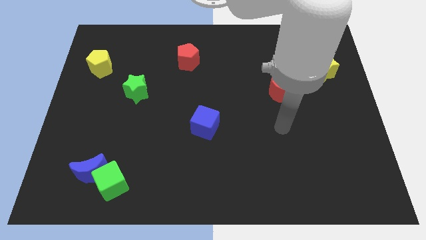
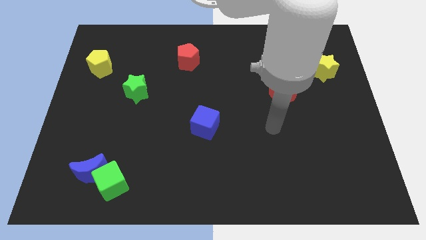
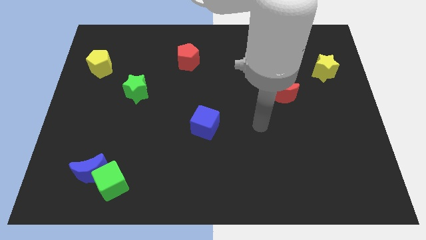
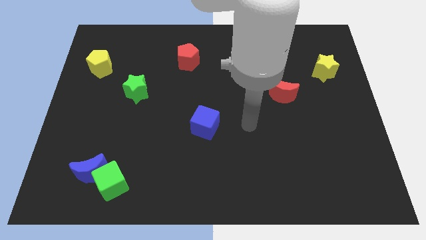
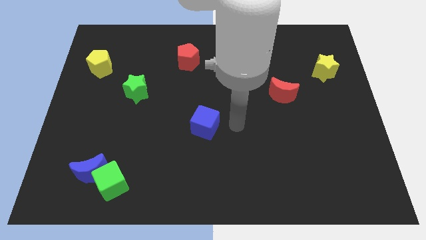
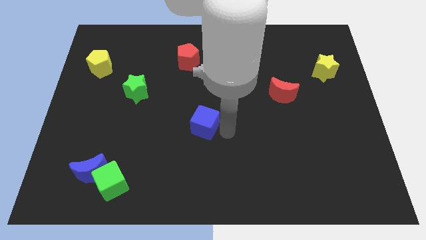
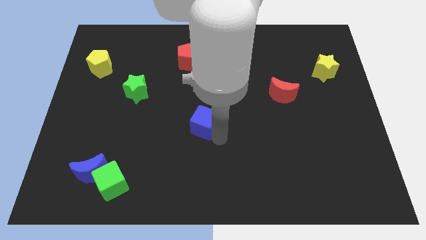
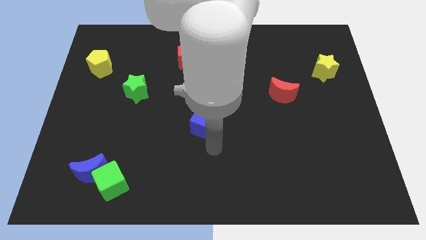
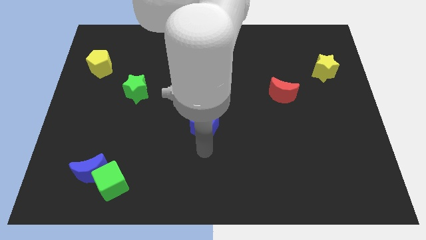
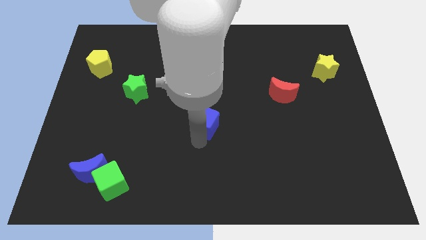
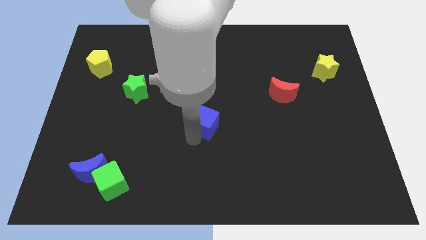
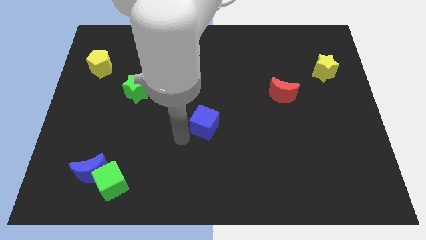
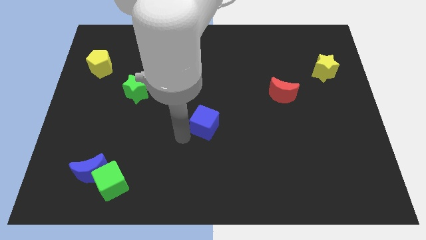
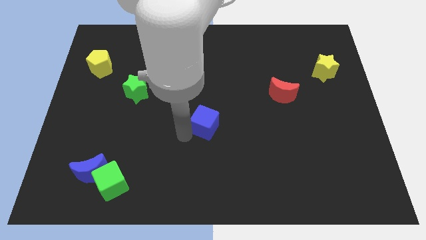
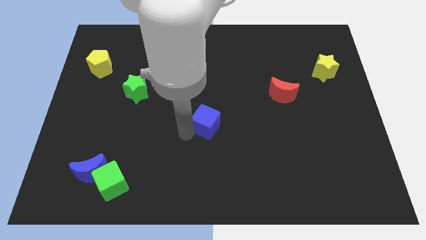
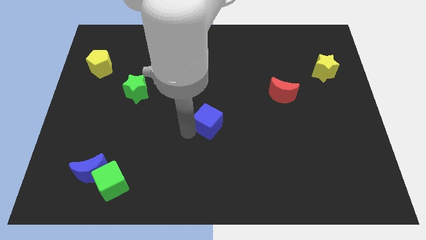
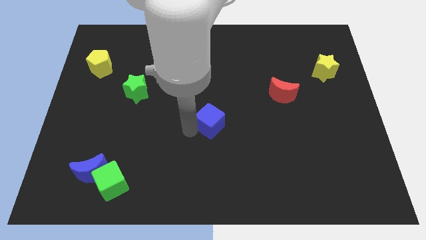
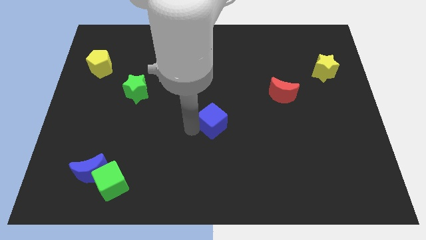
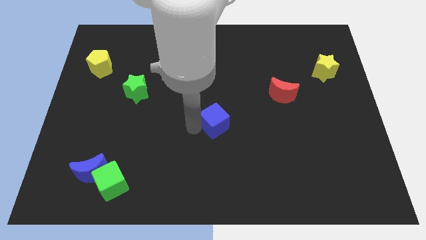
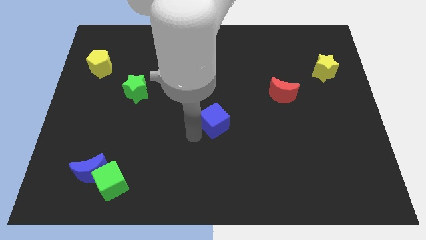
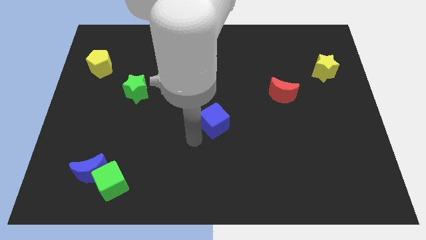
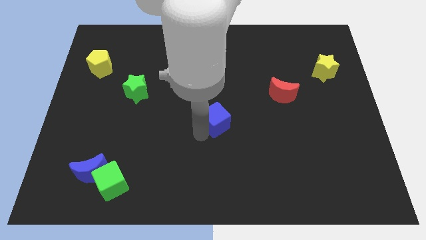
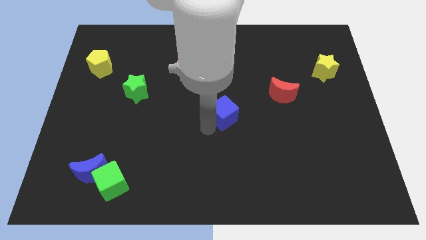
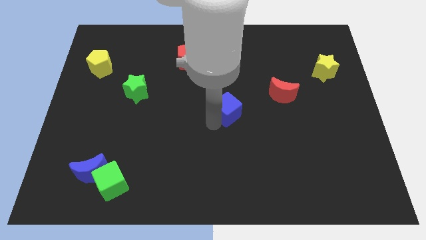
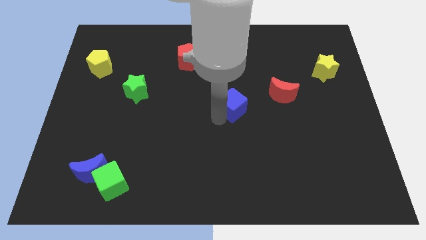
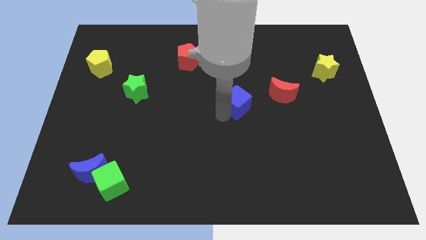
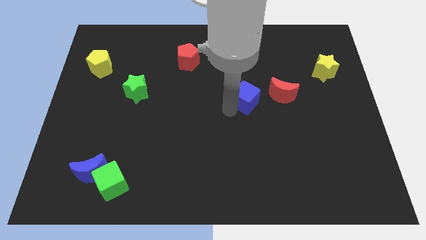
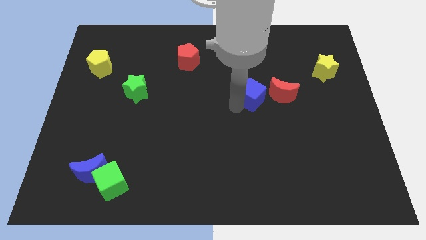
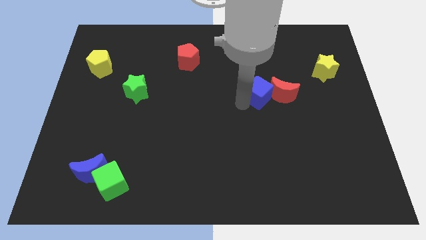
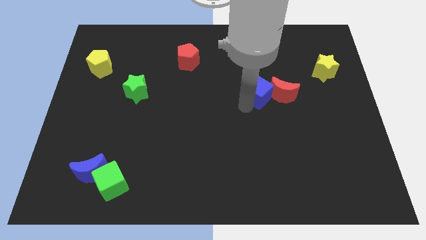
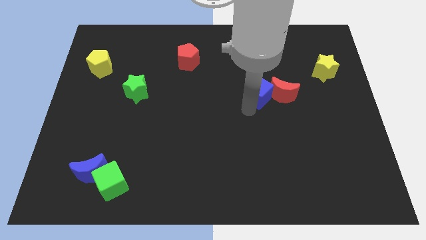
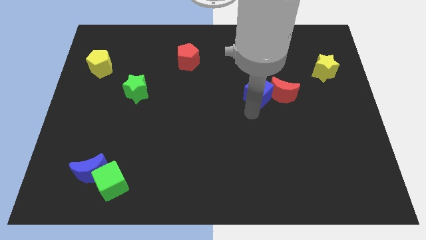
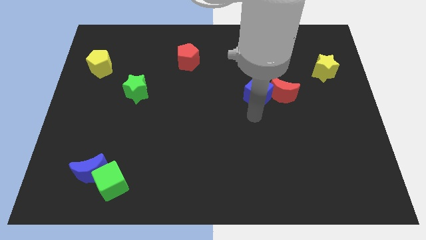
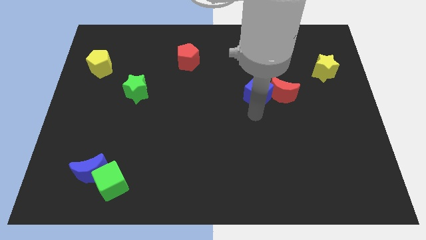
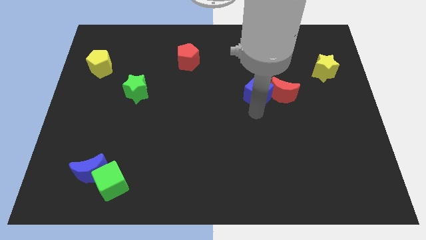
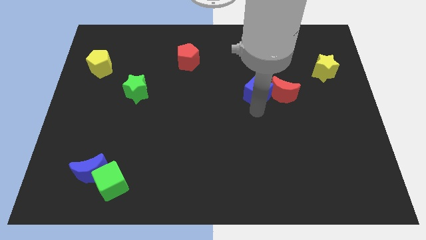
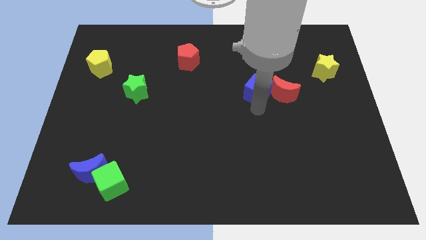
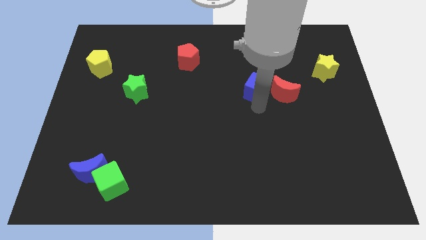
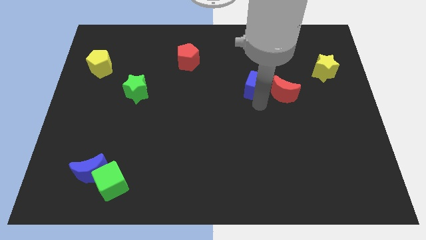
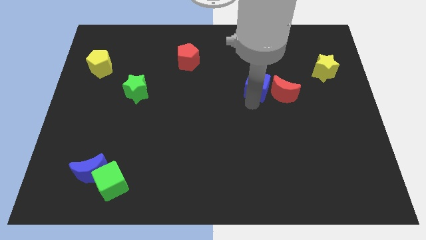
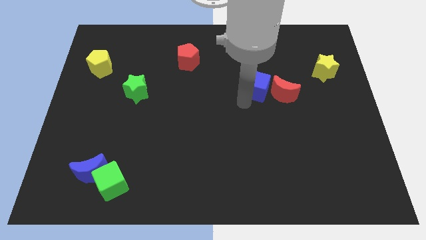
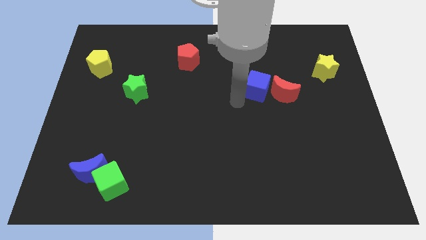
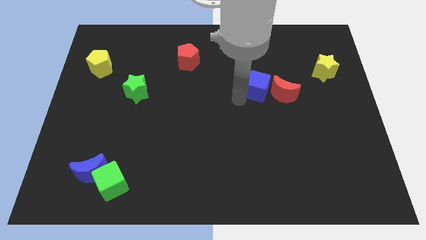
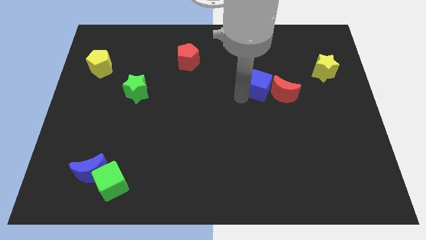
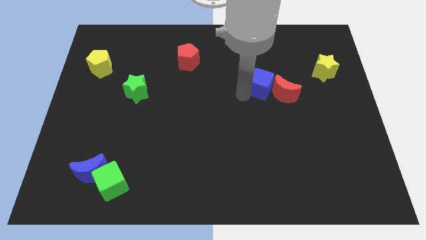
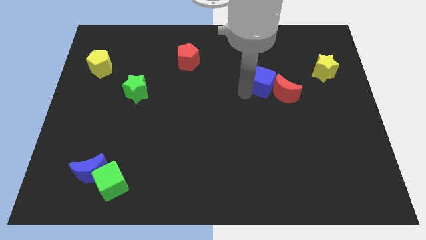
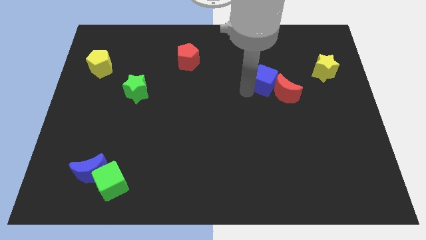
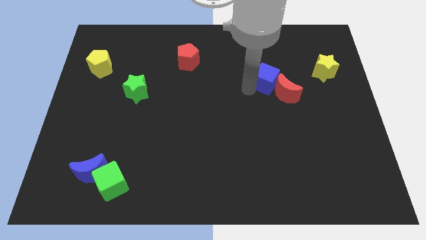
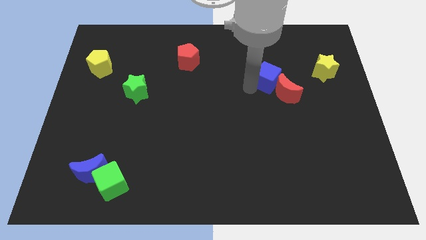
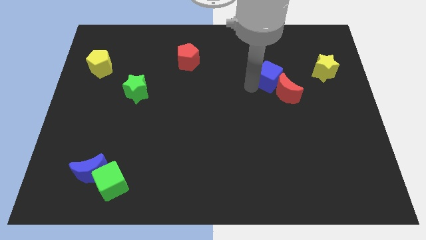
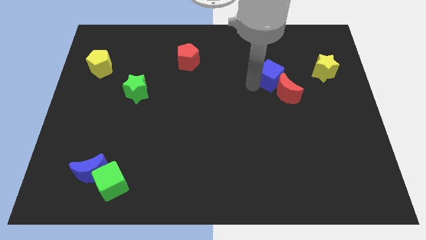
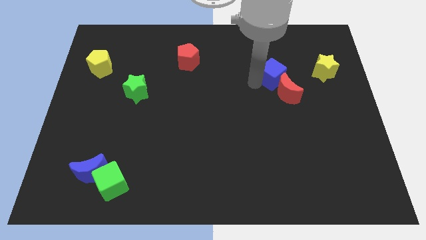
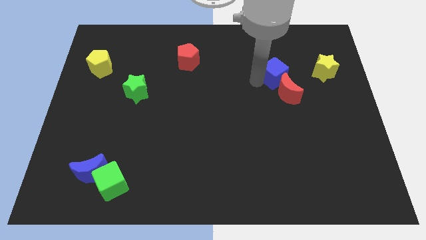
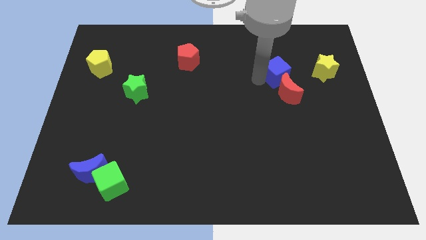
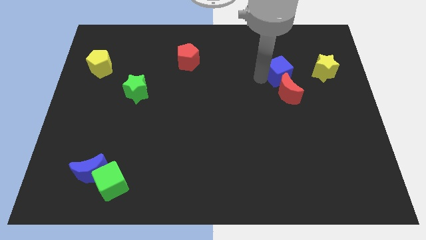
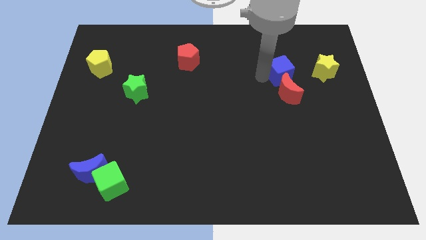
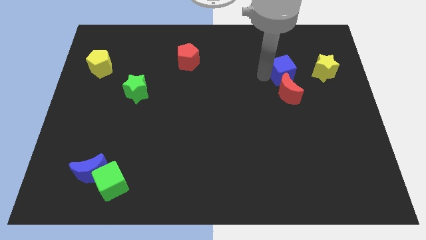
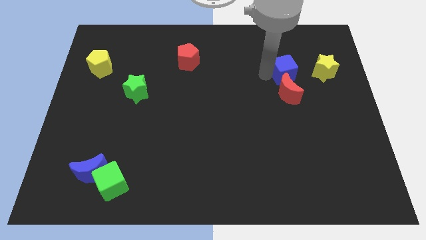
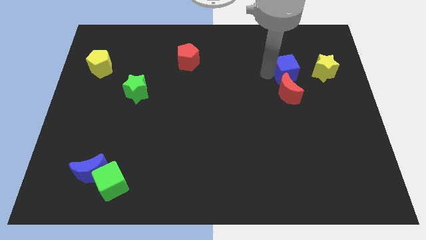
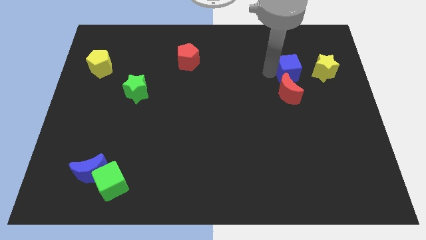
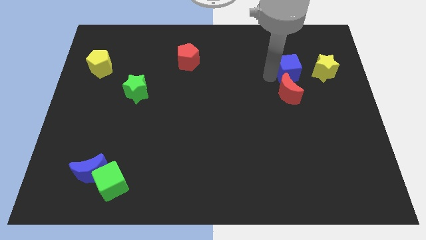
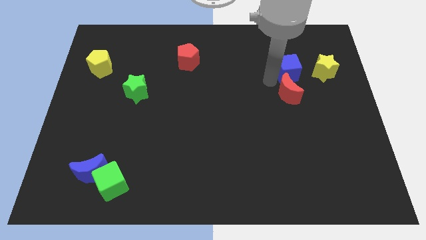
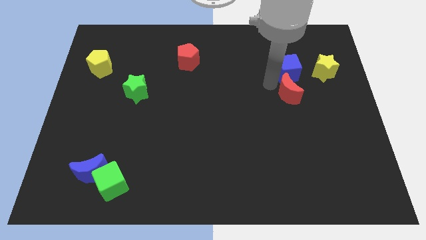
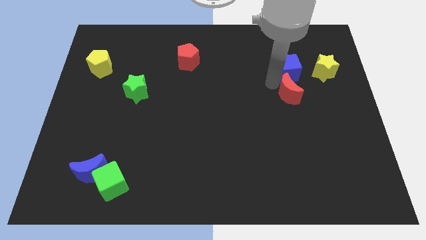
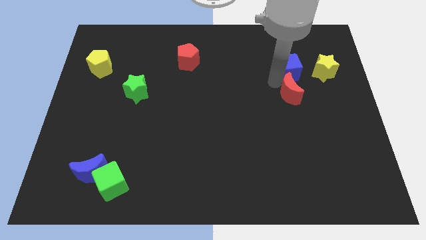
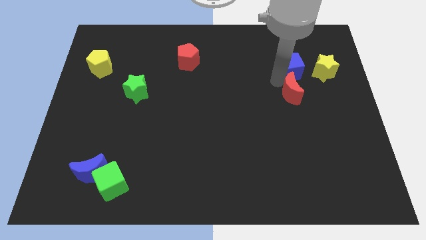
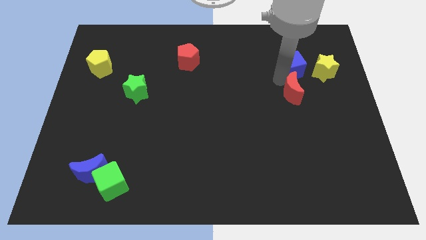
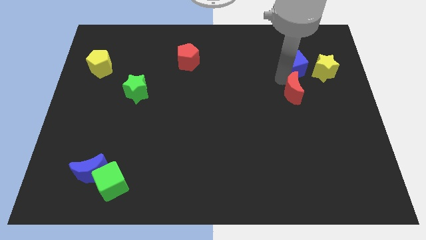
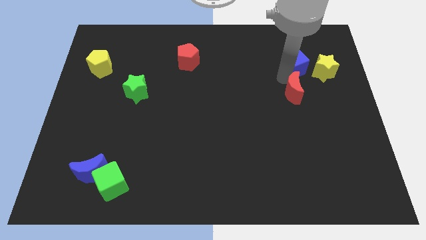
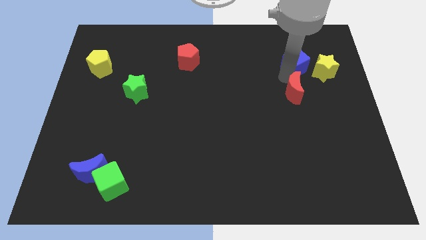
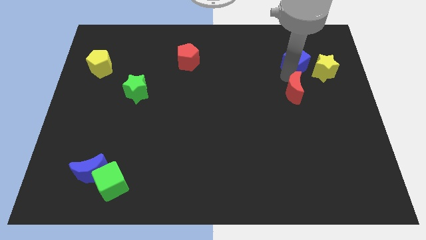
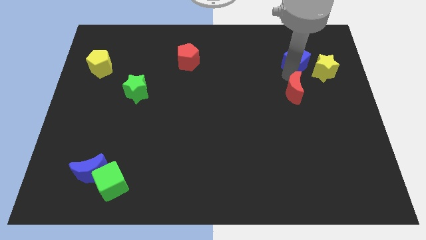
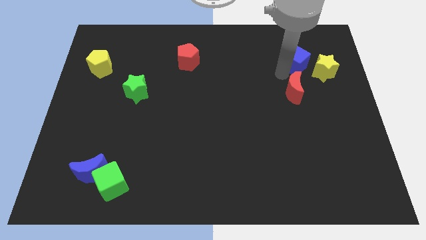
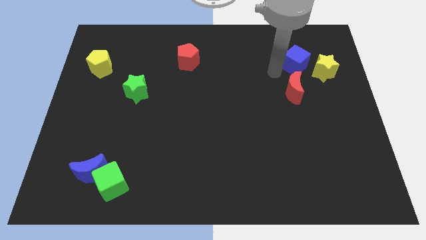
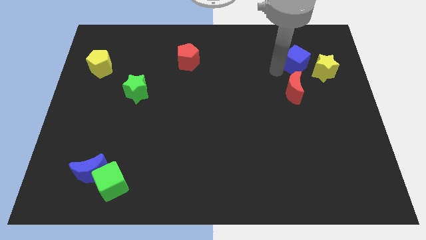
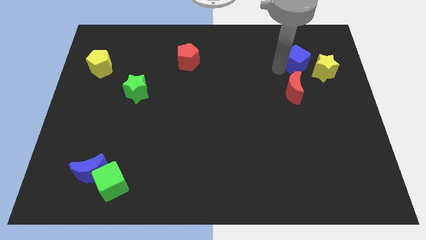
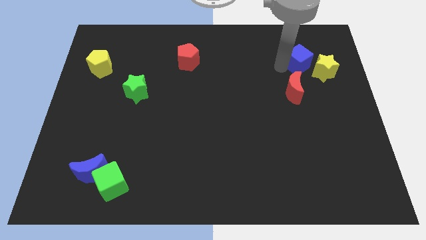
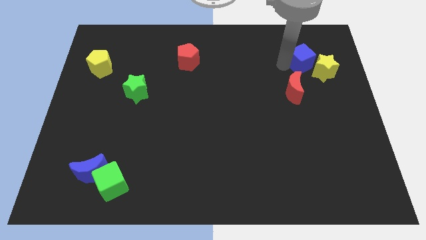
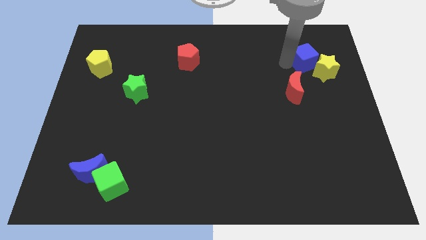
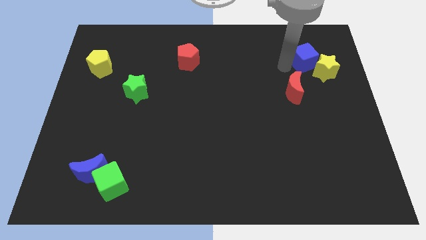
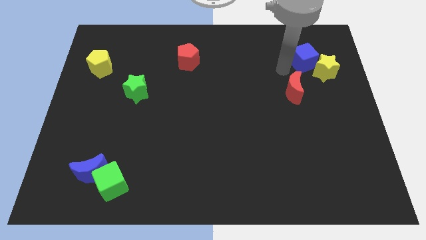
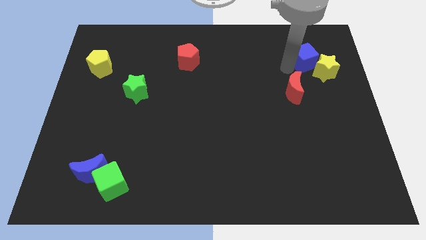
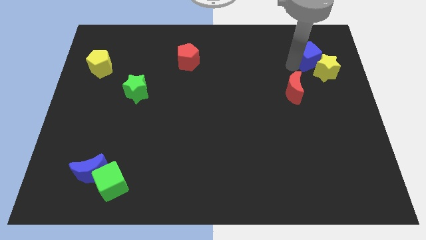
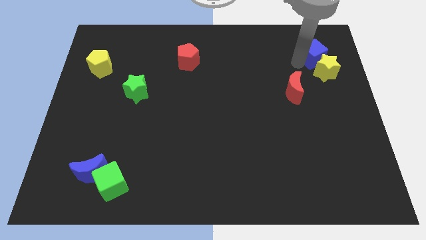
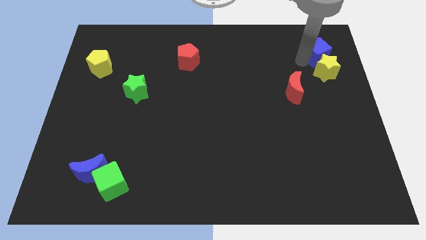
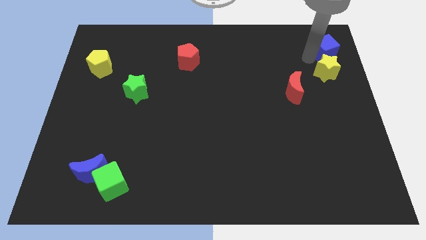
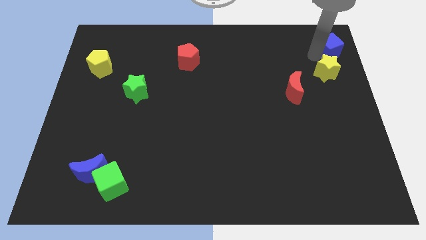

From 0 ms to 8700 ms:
slide the blue cube to the top right of the board
